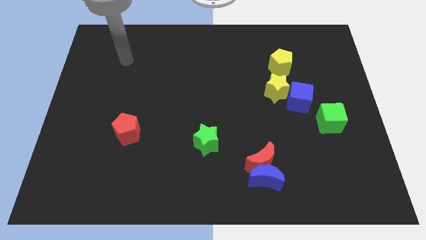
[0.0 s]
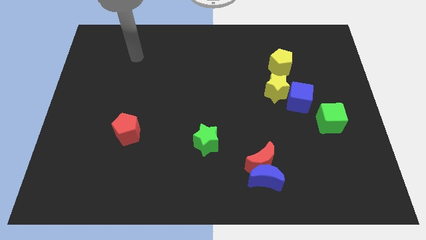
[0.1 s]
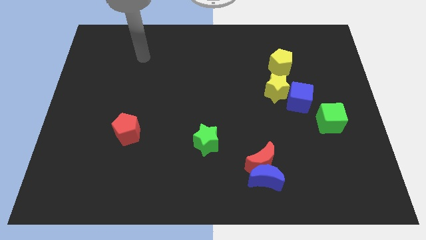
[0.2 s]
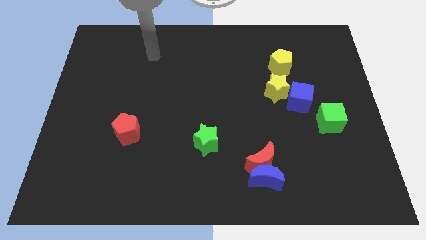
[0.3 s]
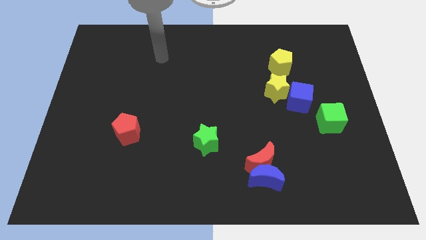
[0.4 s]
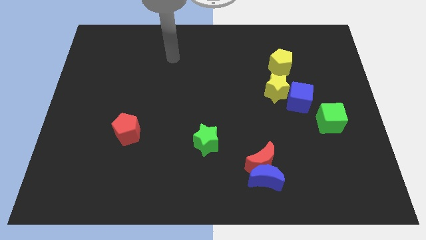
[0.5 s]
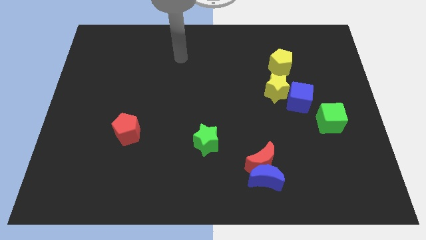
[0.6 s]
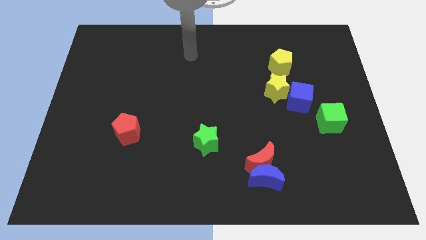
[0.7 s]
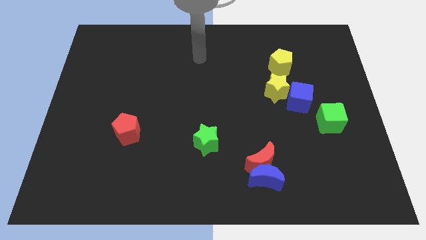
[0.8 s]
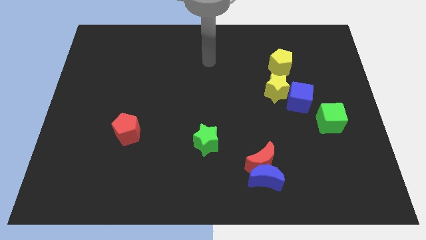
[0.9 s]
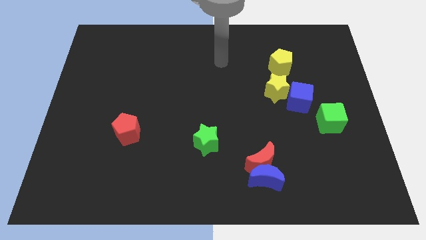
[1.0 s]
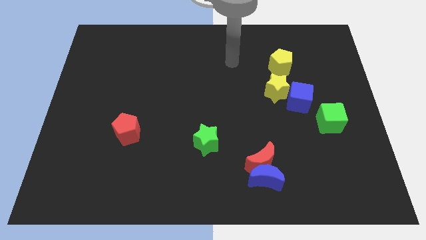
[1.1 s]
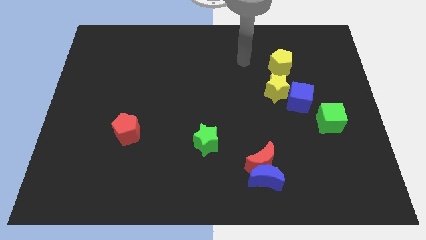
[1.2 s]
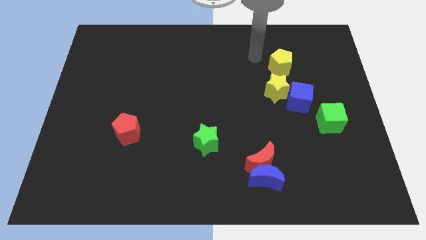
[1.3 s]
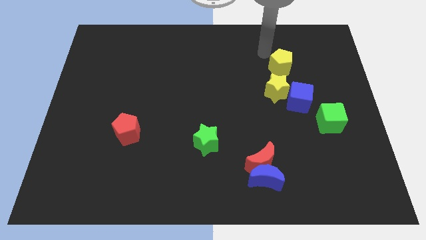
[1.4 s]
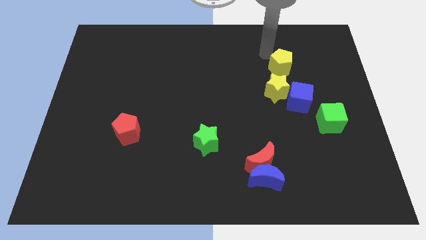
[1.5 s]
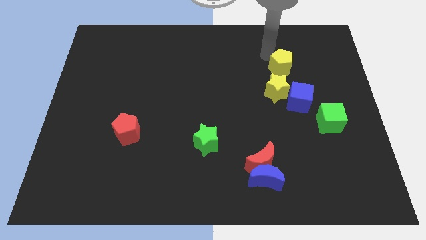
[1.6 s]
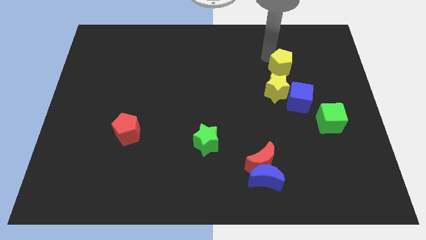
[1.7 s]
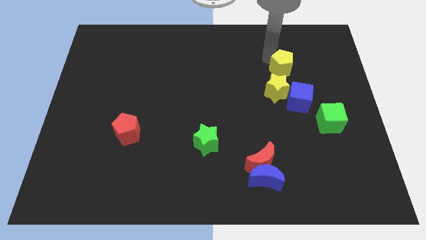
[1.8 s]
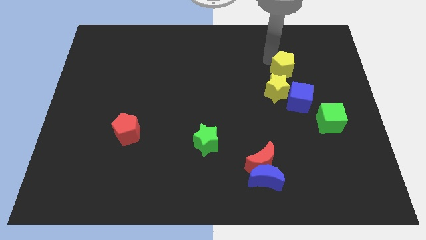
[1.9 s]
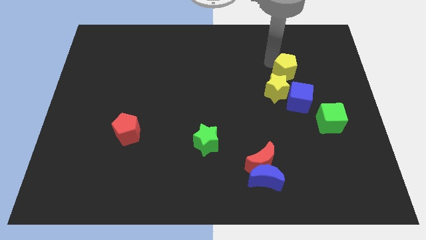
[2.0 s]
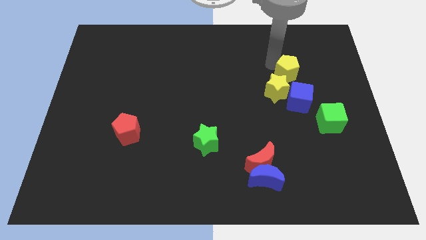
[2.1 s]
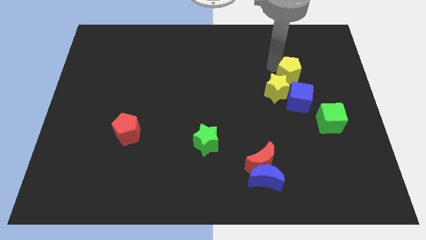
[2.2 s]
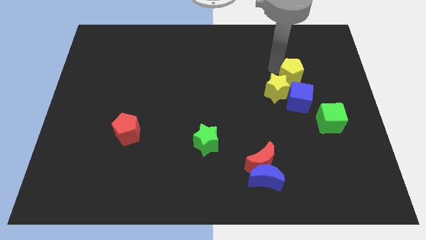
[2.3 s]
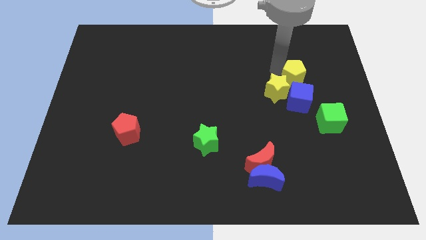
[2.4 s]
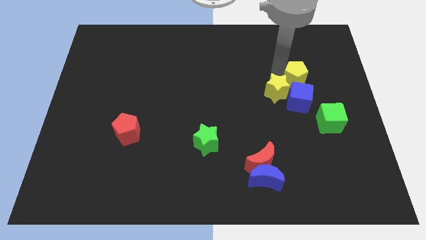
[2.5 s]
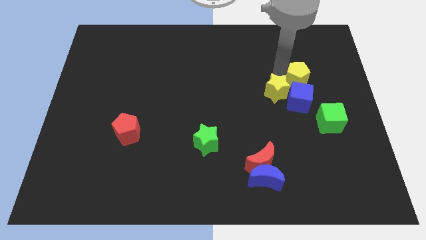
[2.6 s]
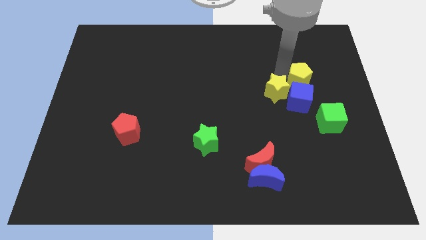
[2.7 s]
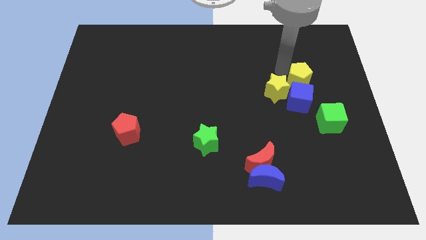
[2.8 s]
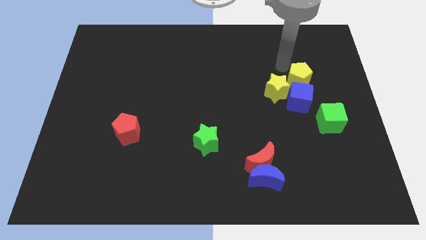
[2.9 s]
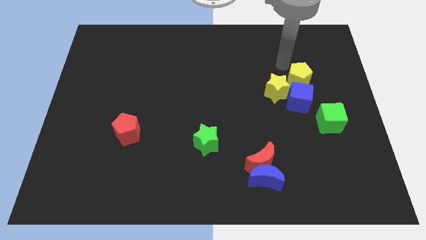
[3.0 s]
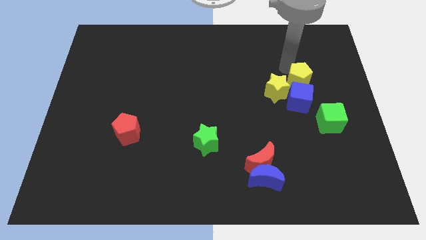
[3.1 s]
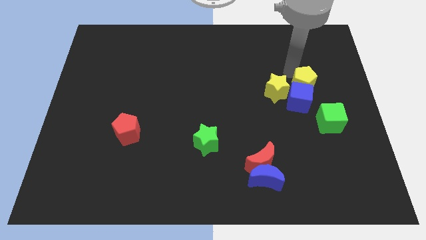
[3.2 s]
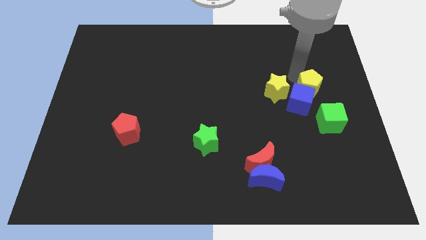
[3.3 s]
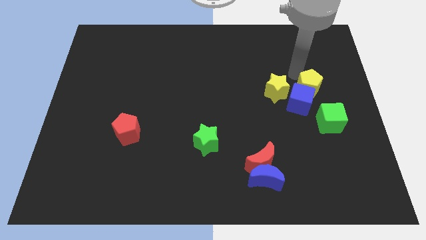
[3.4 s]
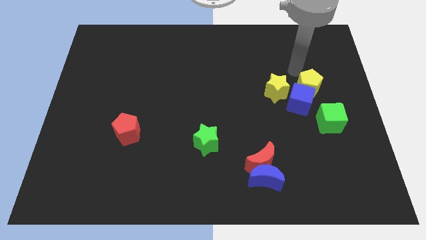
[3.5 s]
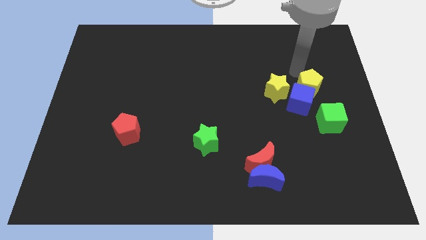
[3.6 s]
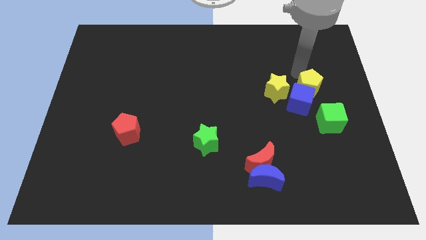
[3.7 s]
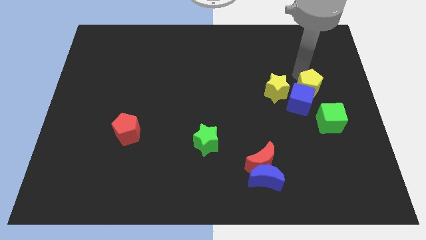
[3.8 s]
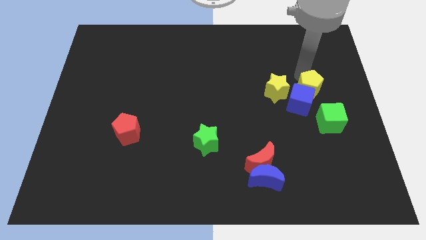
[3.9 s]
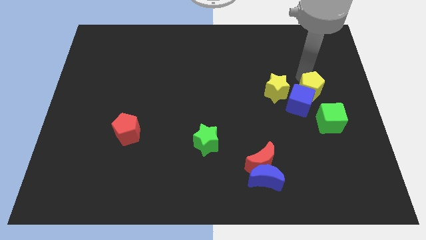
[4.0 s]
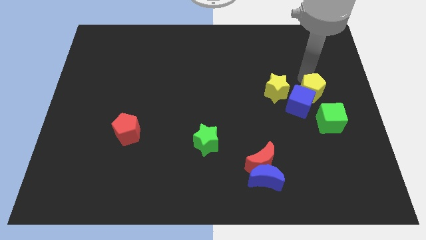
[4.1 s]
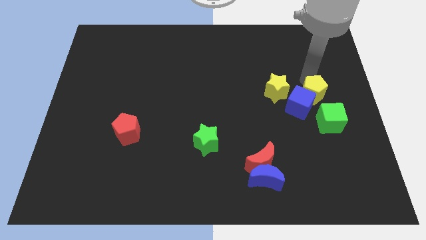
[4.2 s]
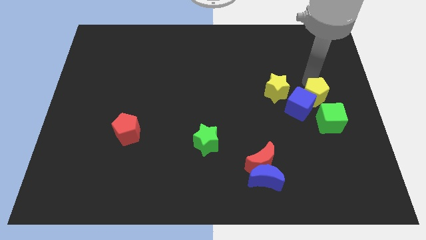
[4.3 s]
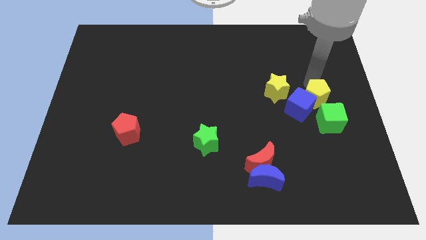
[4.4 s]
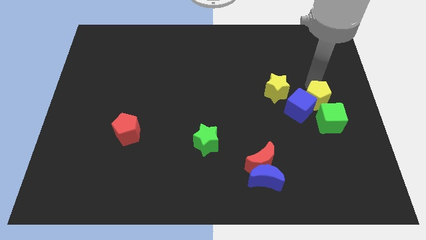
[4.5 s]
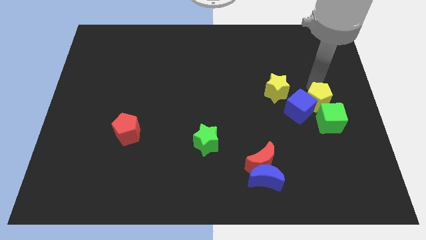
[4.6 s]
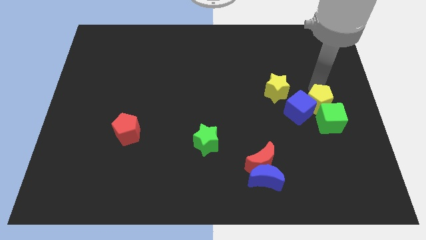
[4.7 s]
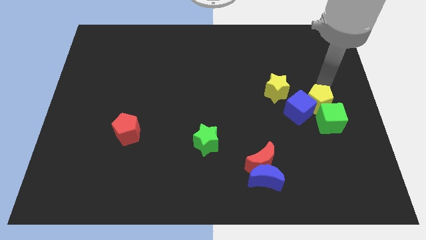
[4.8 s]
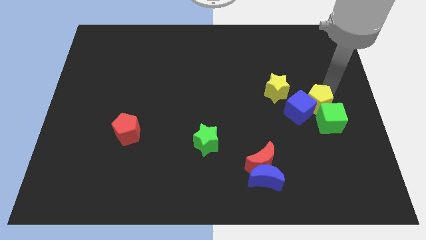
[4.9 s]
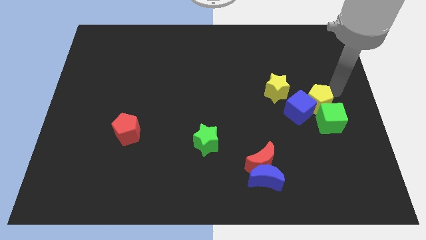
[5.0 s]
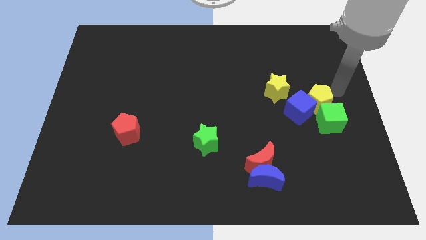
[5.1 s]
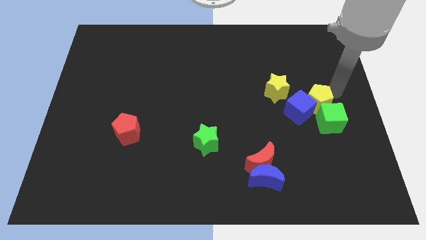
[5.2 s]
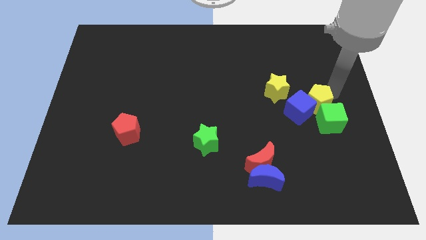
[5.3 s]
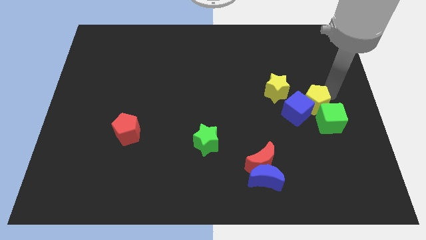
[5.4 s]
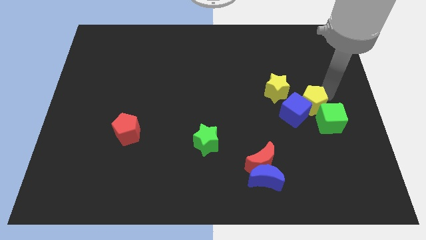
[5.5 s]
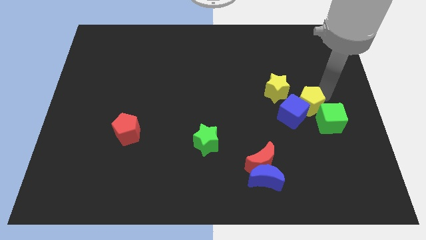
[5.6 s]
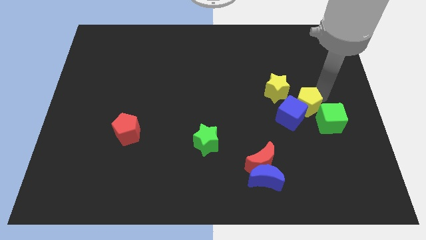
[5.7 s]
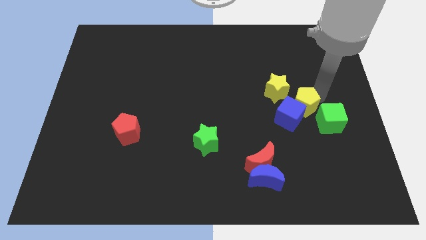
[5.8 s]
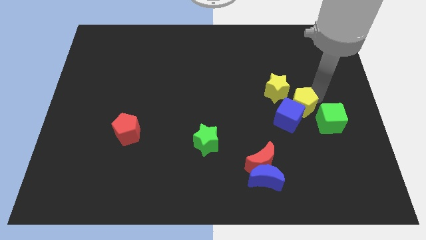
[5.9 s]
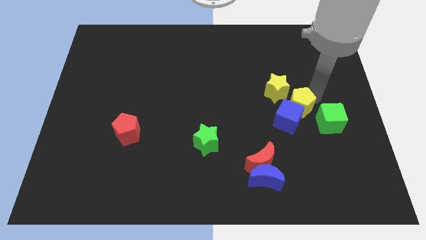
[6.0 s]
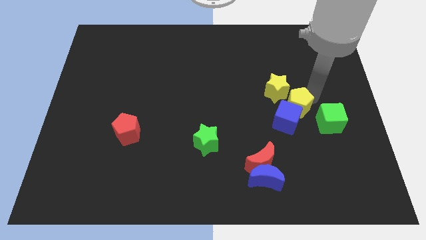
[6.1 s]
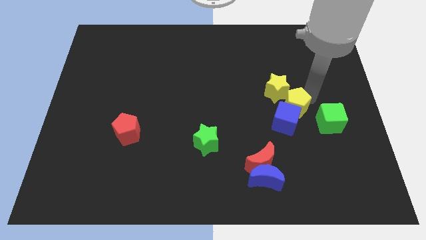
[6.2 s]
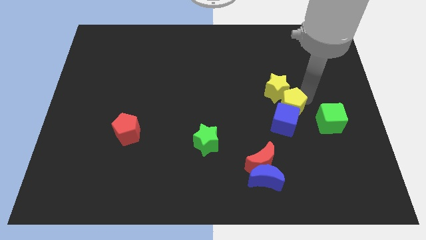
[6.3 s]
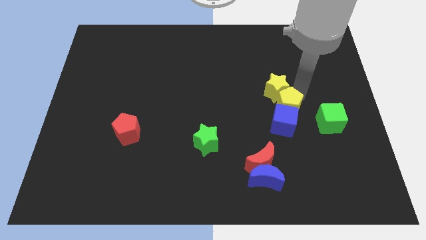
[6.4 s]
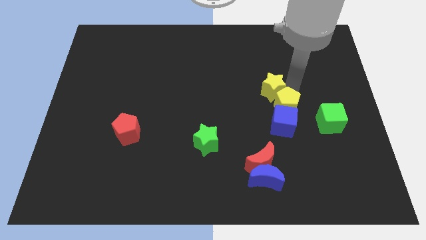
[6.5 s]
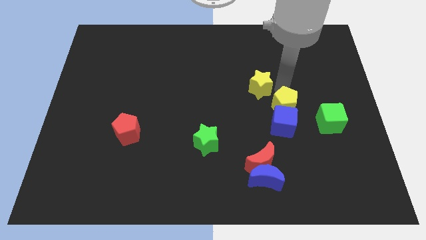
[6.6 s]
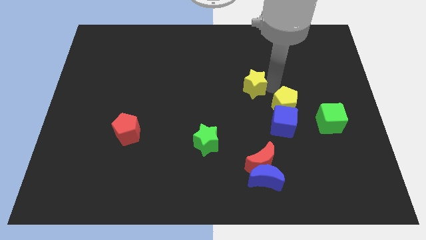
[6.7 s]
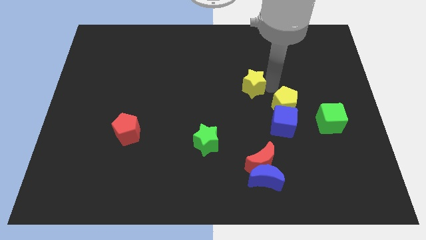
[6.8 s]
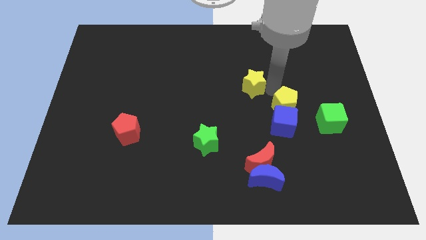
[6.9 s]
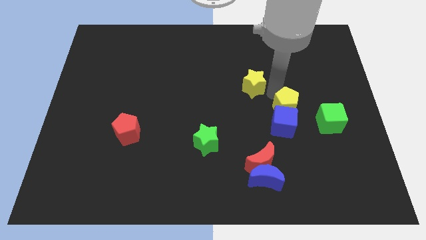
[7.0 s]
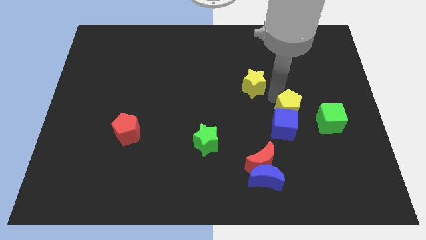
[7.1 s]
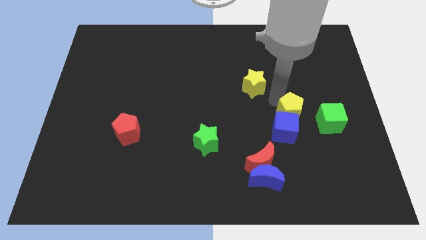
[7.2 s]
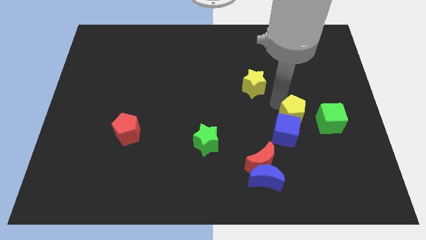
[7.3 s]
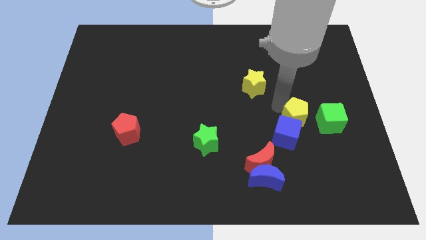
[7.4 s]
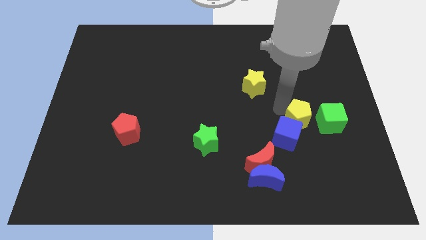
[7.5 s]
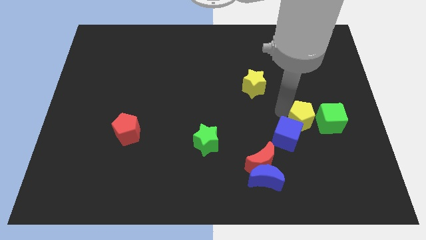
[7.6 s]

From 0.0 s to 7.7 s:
move the yellow pentagon to the bottom left side of the green cube

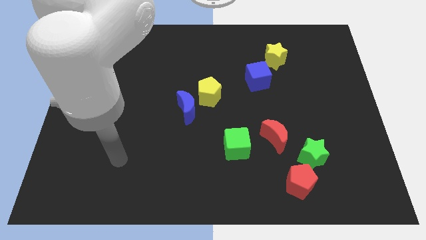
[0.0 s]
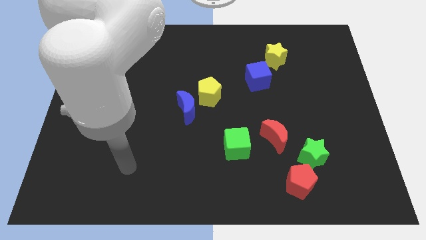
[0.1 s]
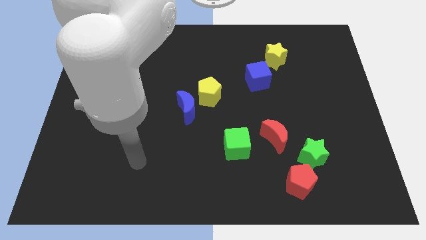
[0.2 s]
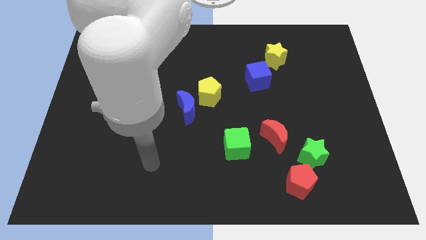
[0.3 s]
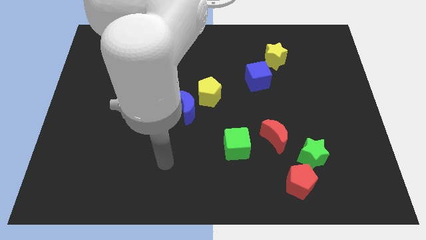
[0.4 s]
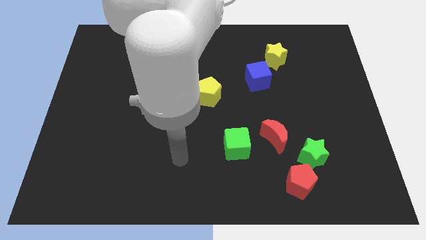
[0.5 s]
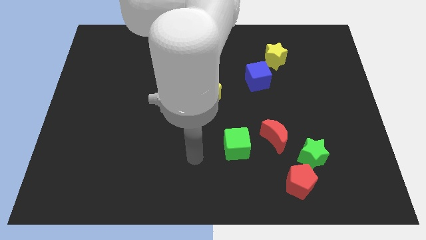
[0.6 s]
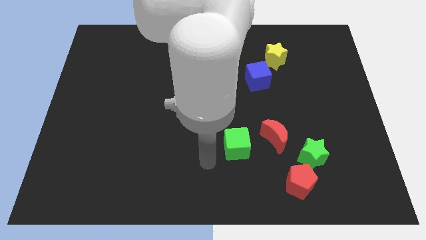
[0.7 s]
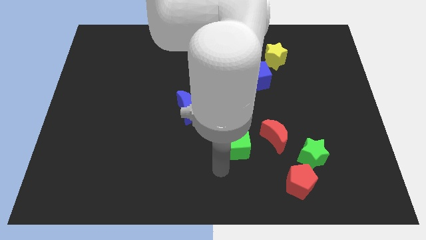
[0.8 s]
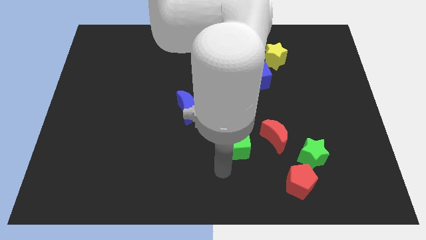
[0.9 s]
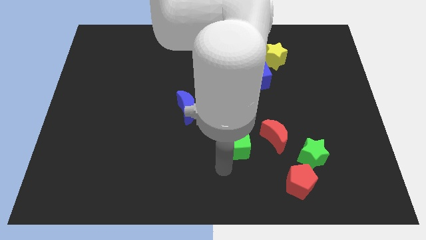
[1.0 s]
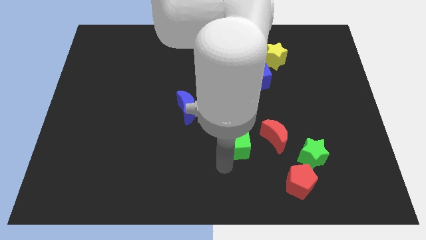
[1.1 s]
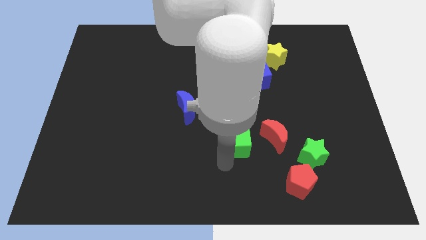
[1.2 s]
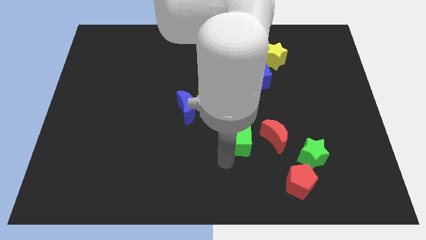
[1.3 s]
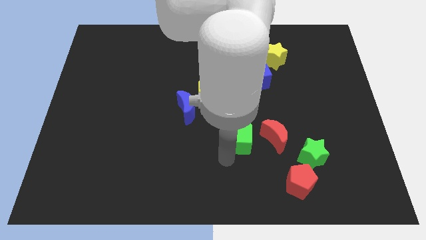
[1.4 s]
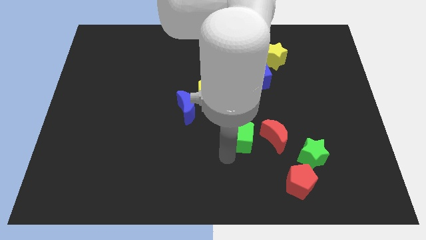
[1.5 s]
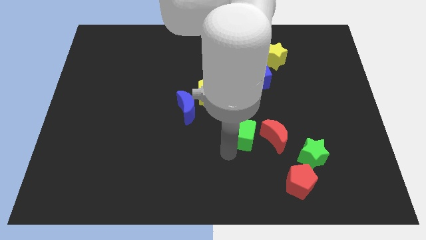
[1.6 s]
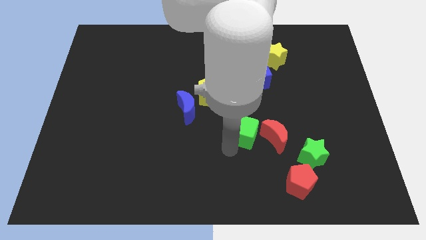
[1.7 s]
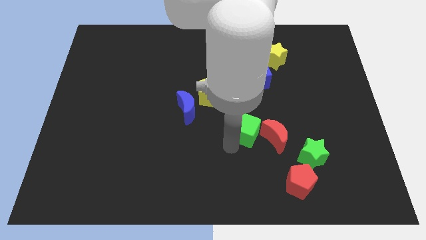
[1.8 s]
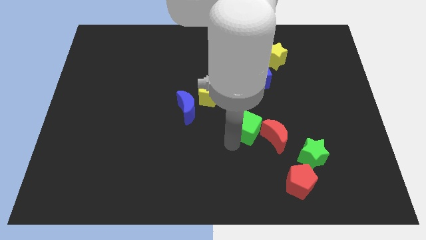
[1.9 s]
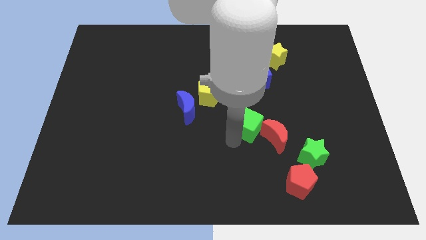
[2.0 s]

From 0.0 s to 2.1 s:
move the green cube to the bottom side of the blue cube
